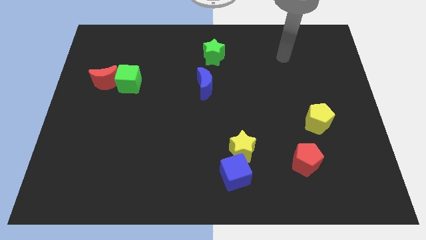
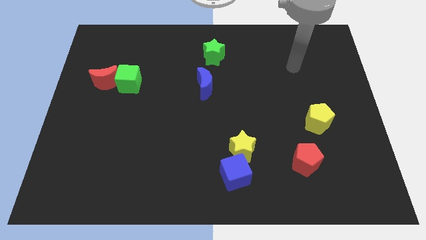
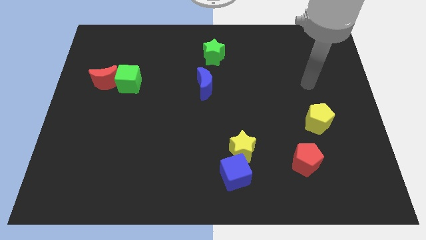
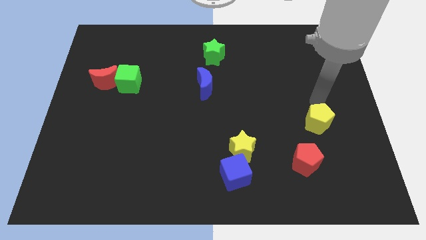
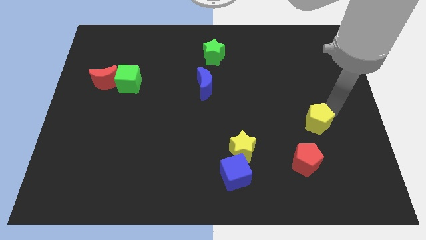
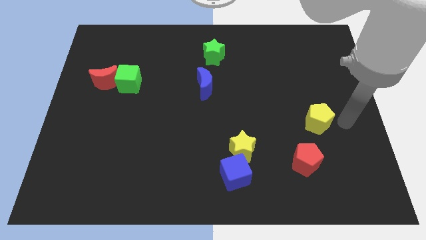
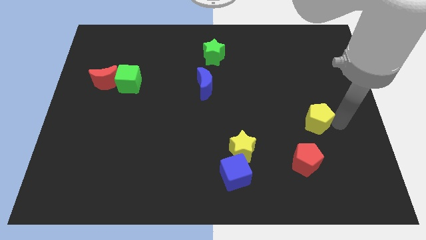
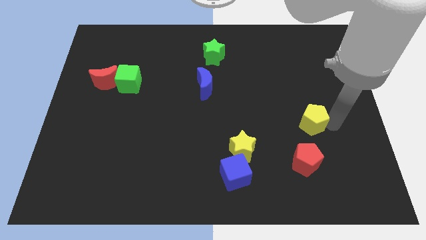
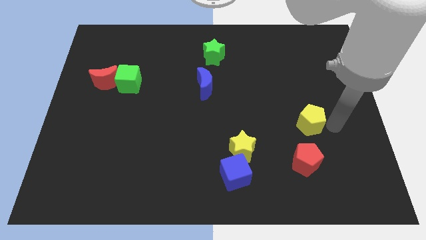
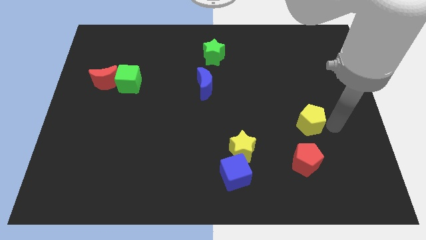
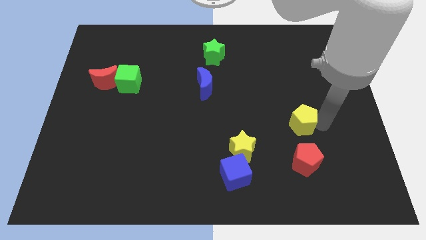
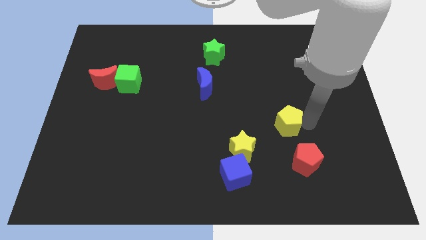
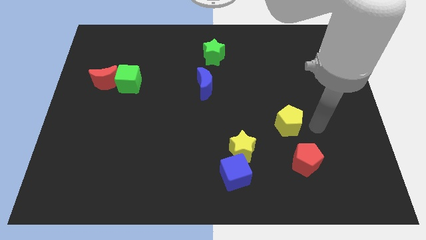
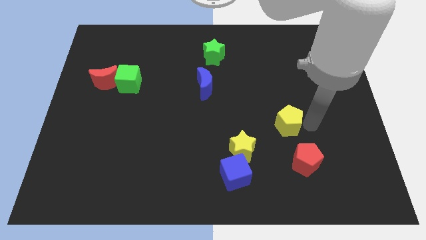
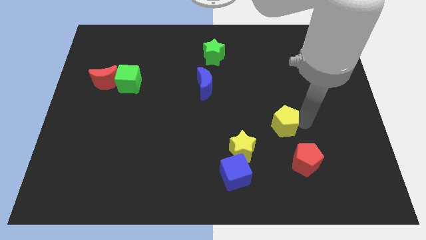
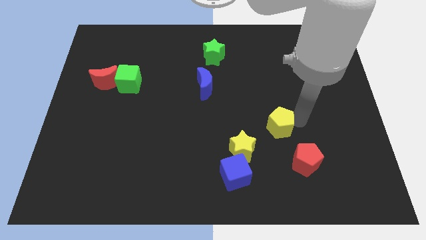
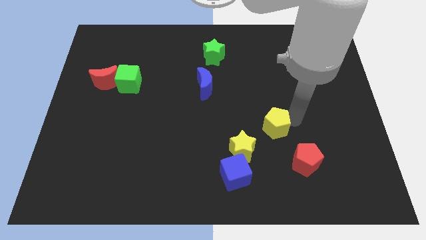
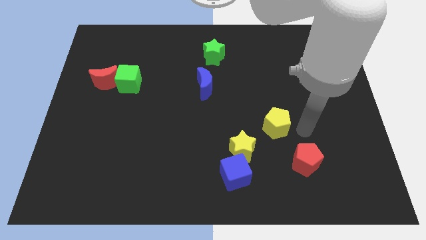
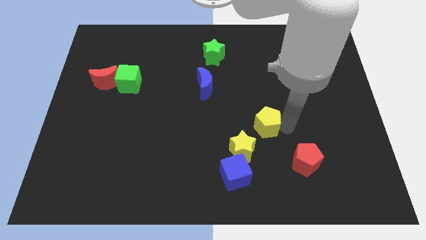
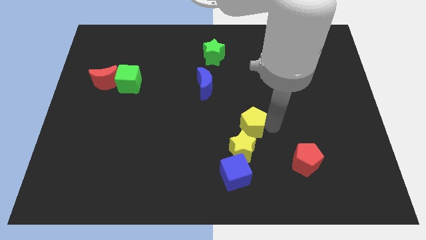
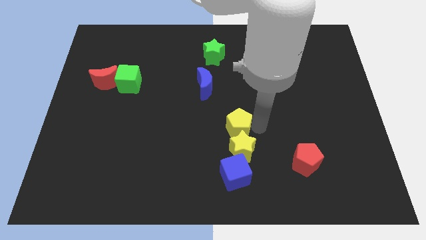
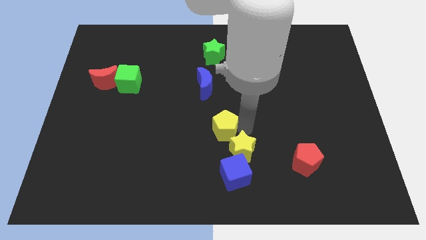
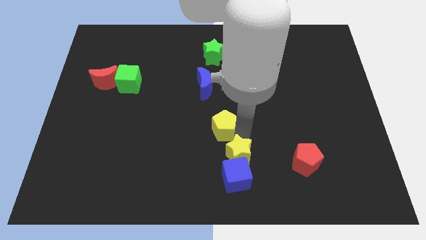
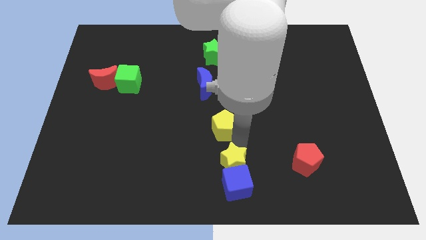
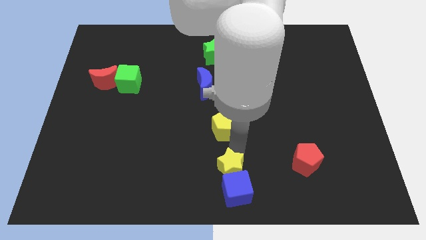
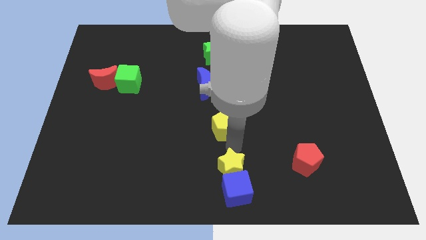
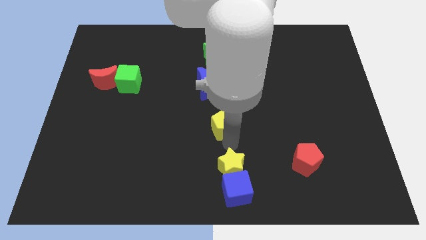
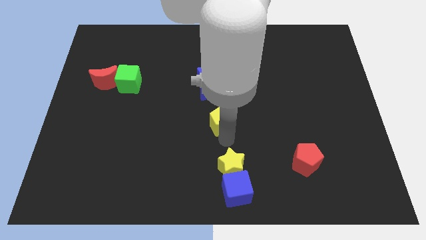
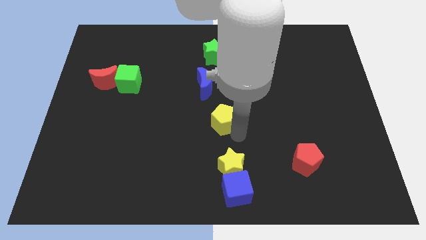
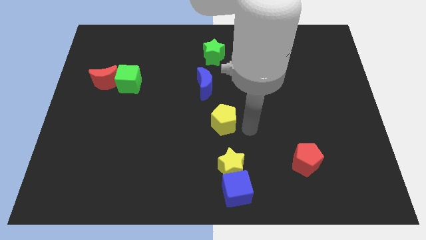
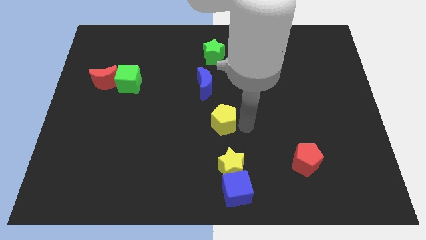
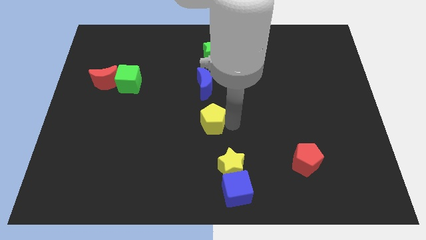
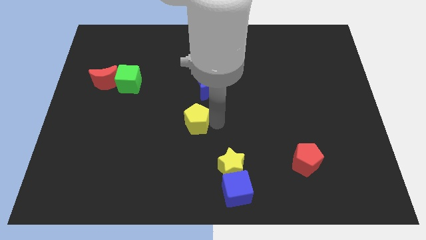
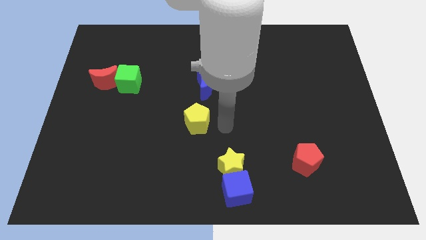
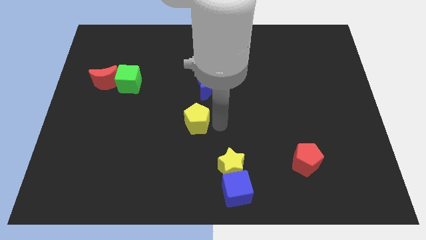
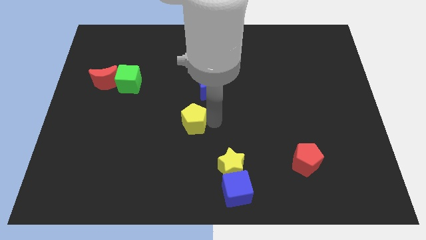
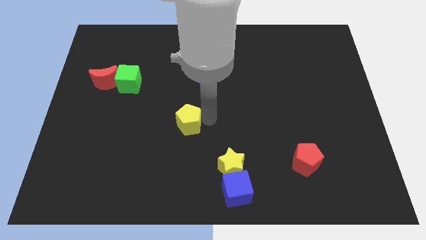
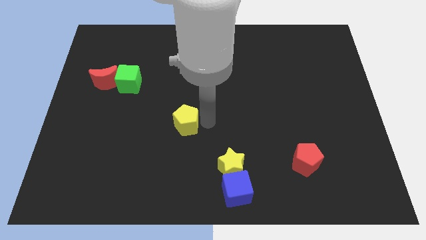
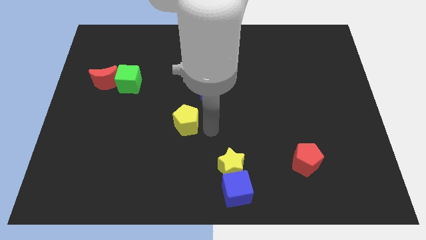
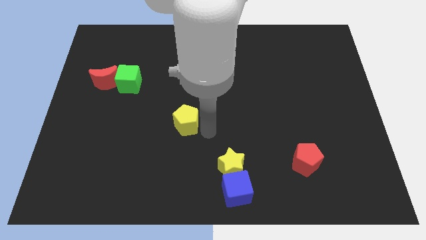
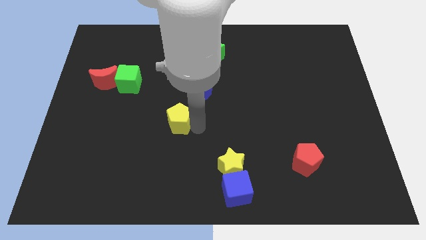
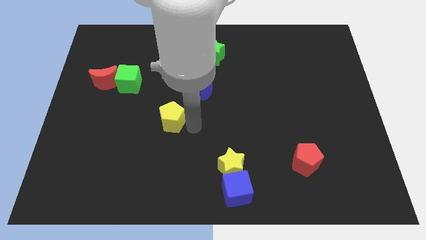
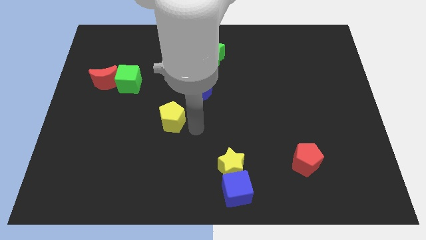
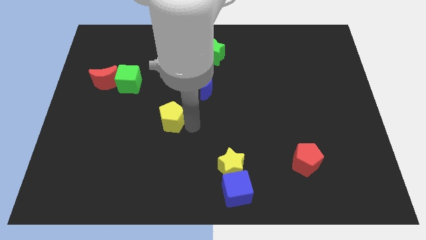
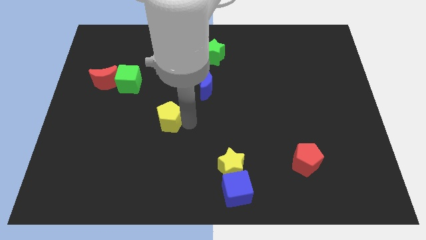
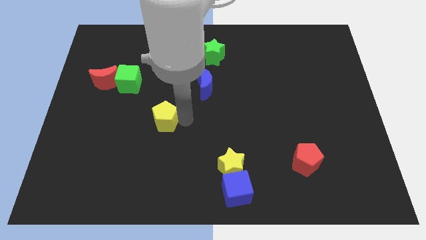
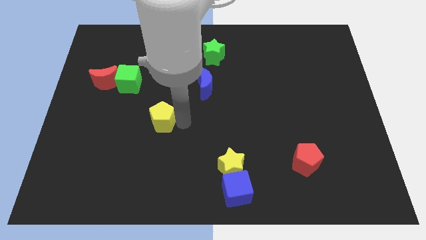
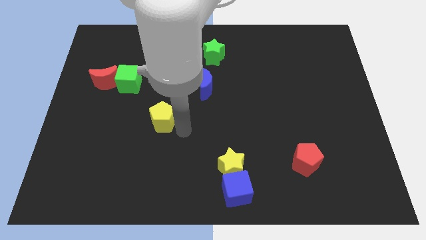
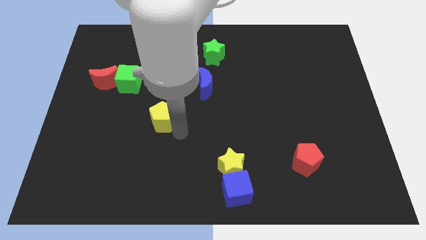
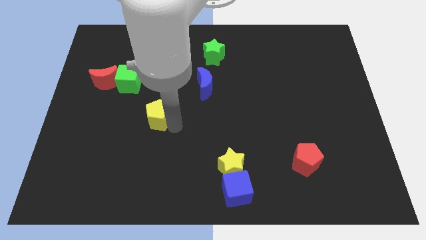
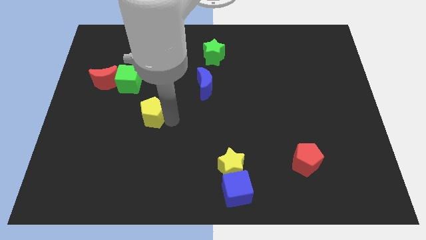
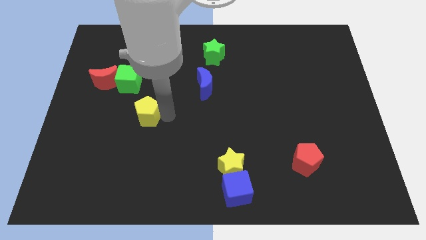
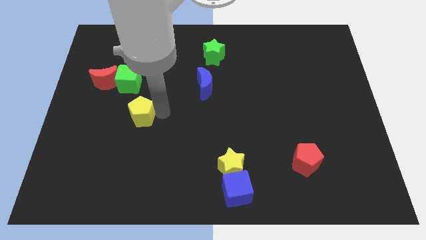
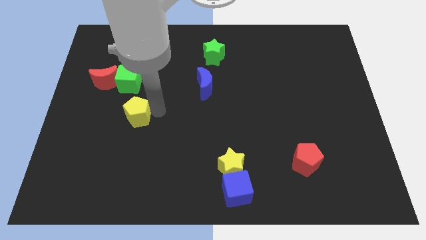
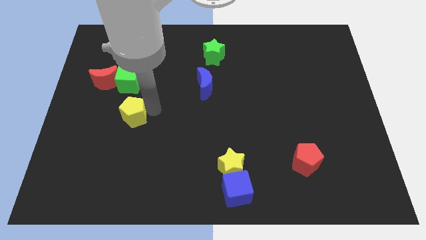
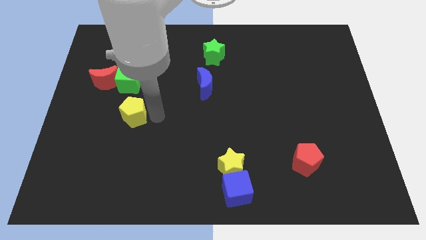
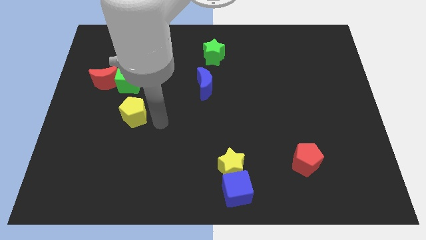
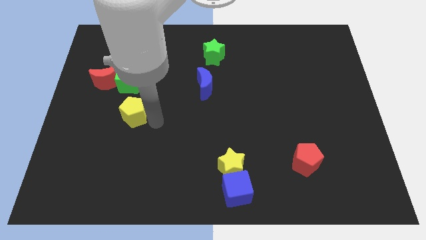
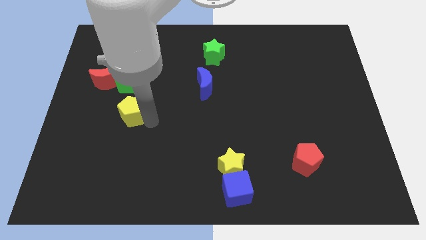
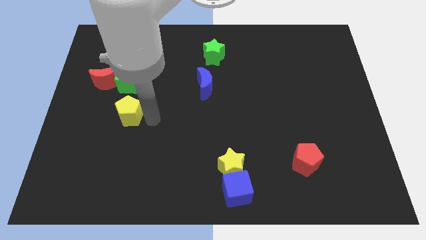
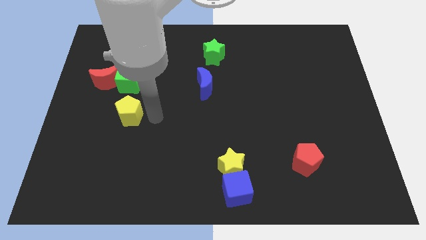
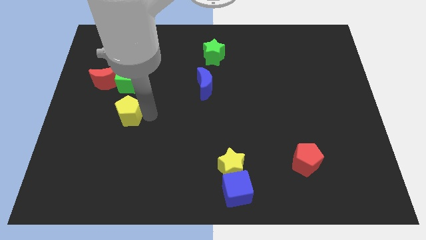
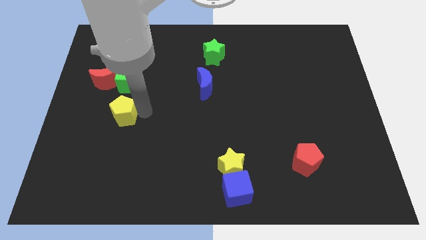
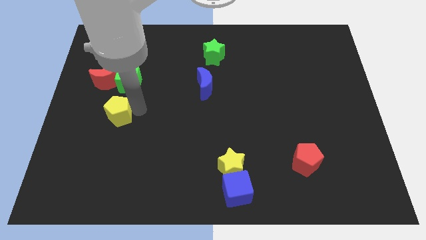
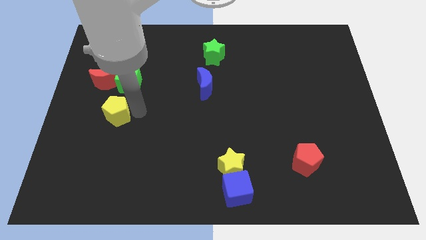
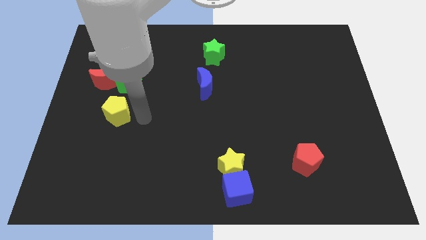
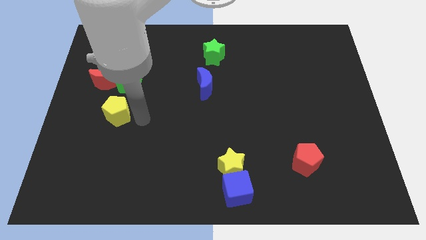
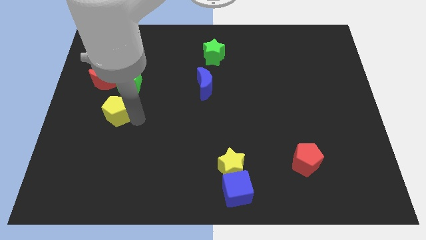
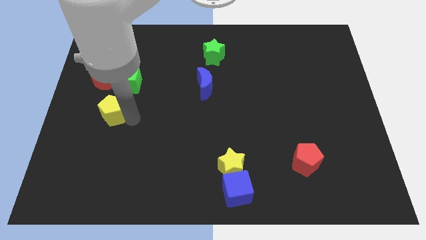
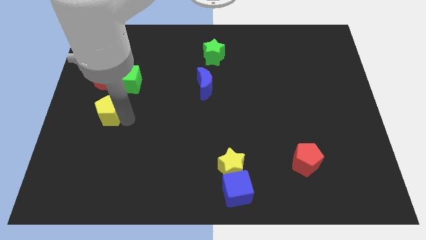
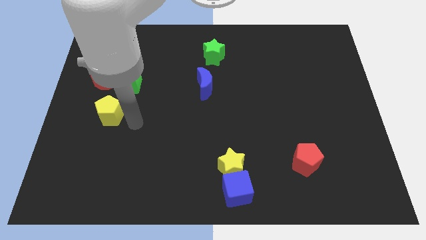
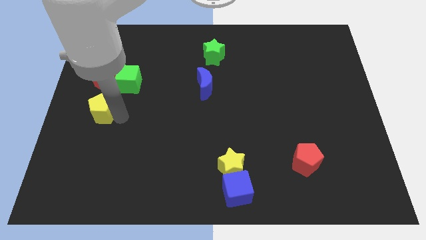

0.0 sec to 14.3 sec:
slide the yellow pentagon to the center left
